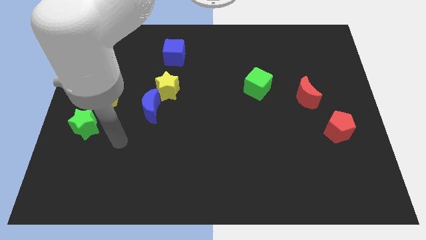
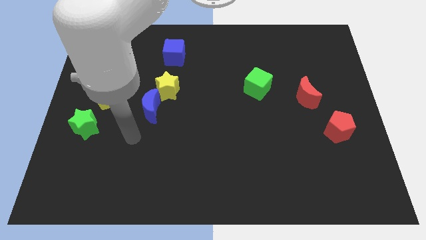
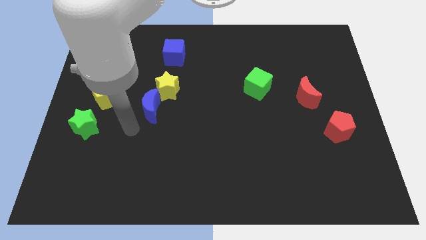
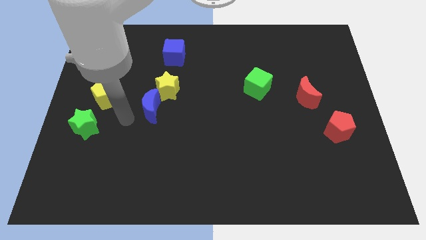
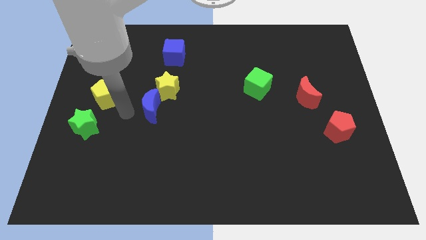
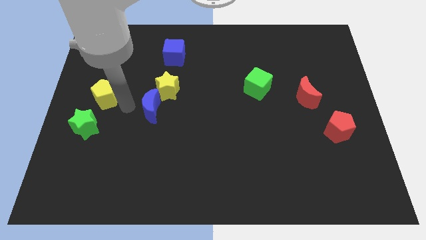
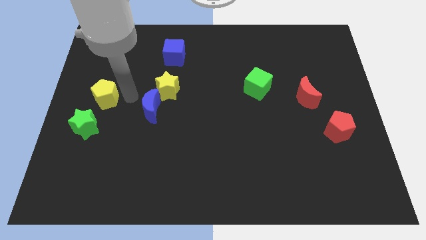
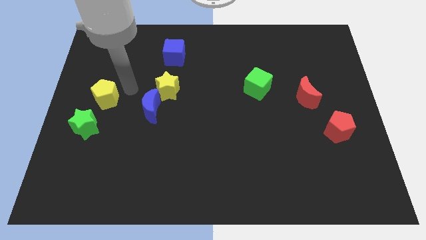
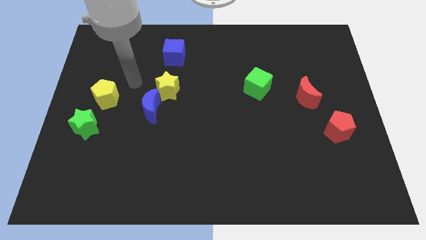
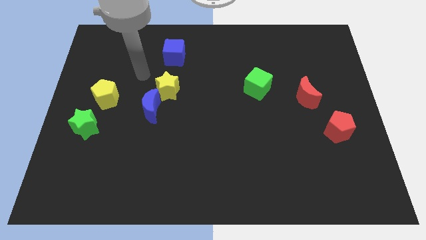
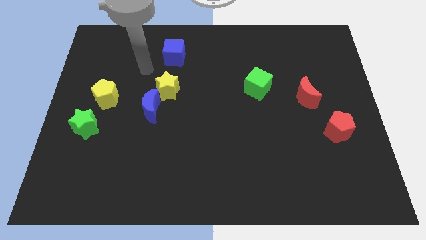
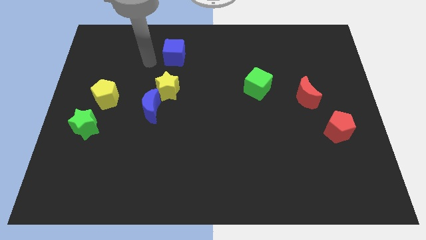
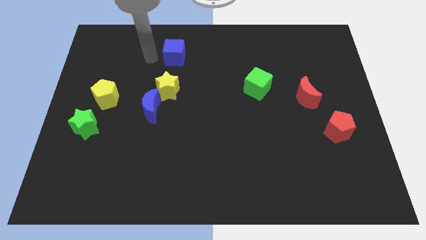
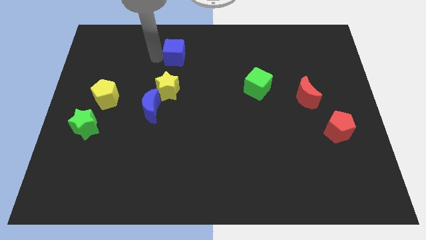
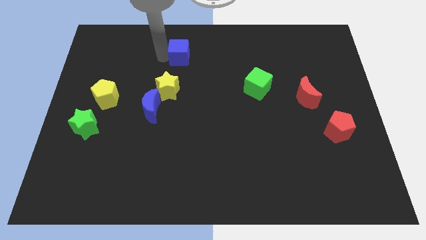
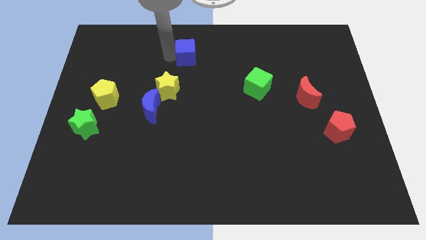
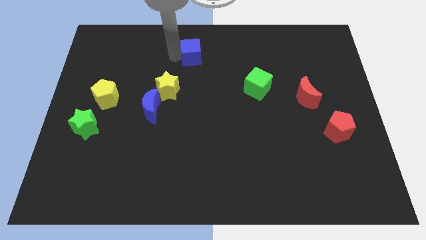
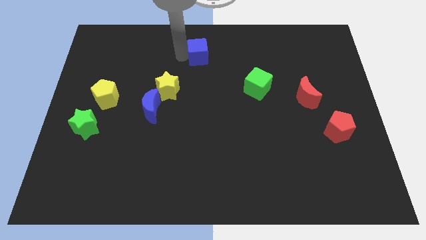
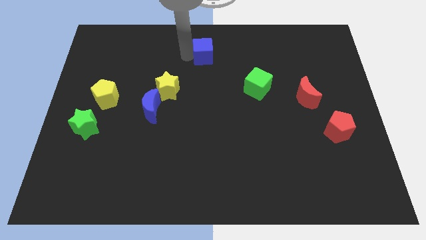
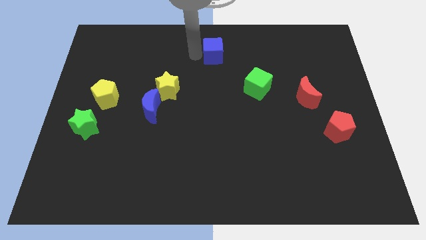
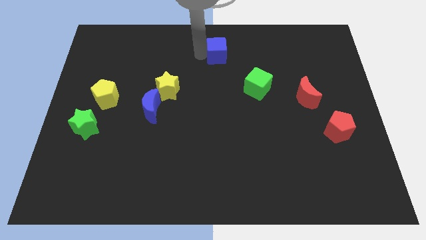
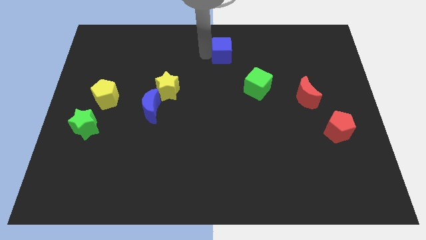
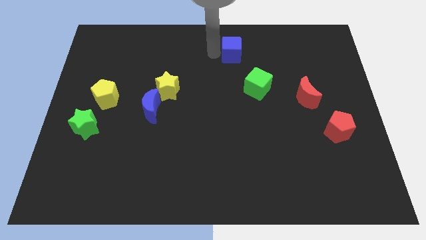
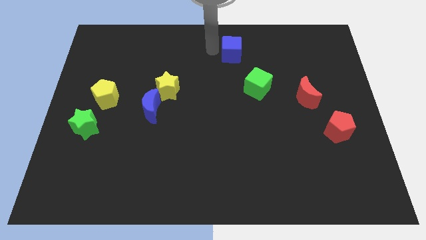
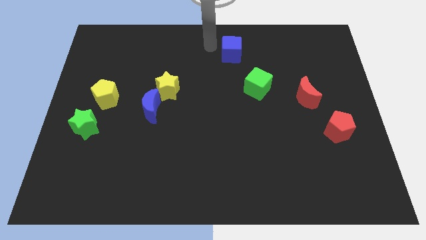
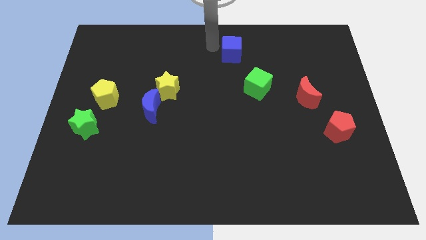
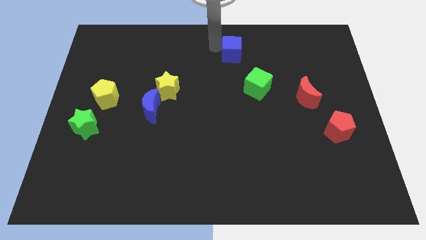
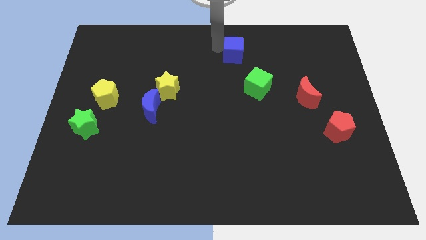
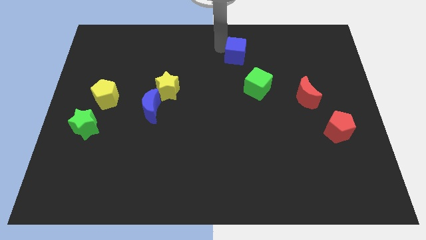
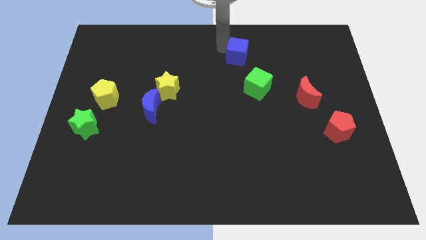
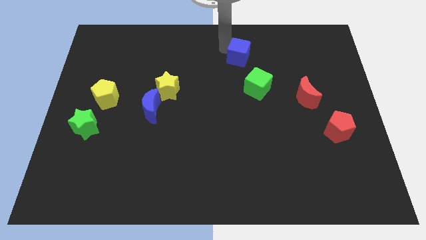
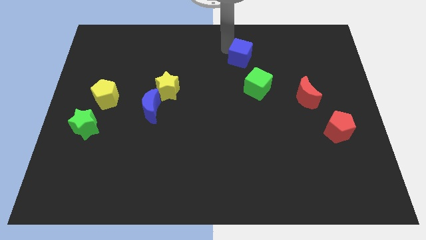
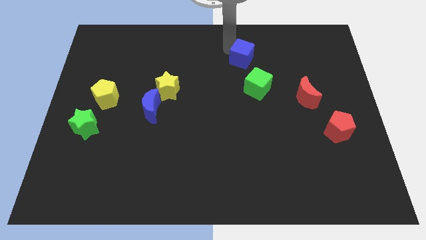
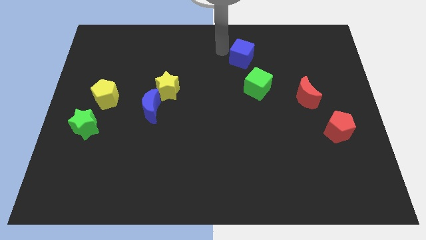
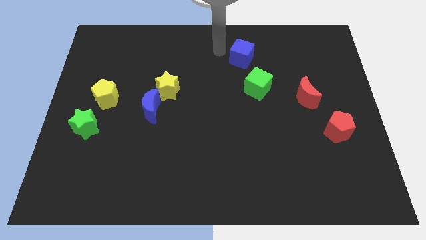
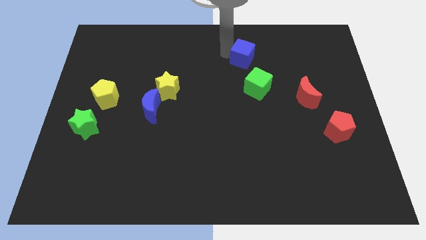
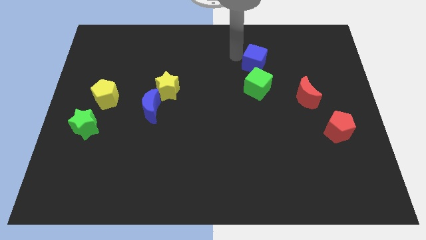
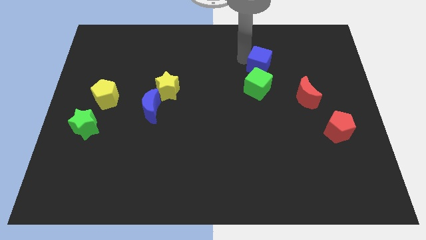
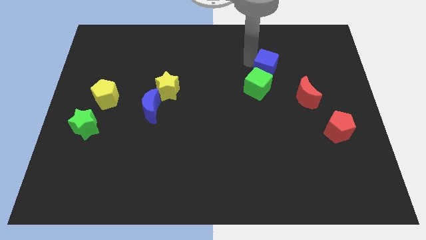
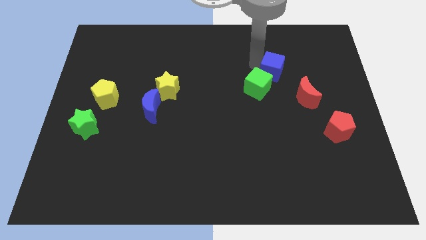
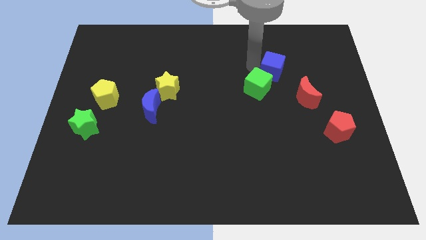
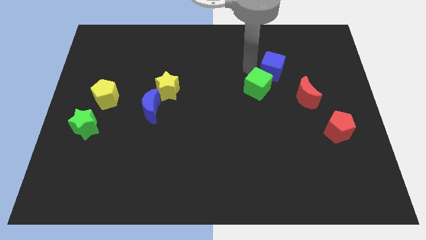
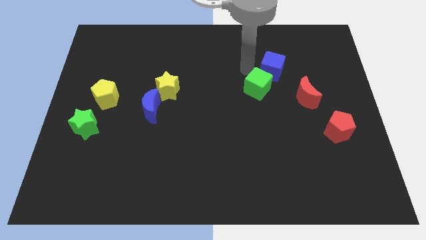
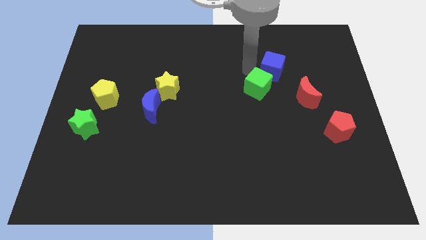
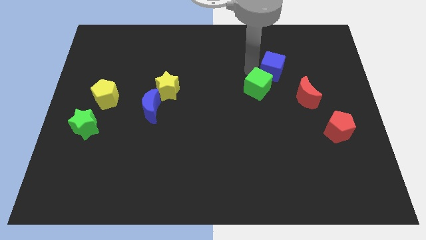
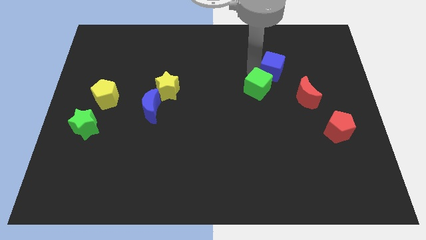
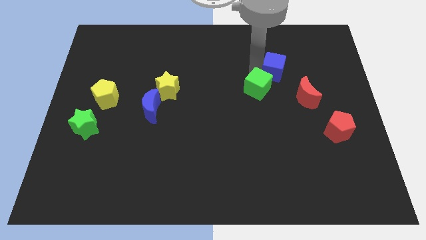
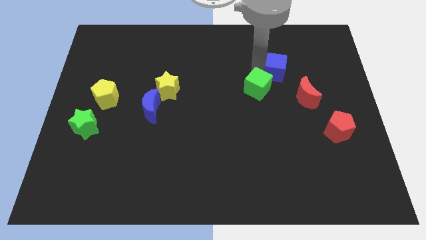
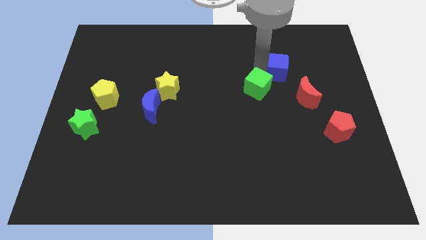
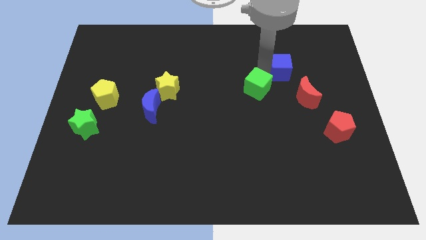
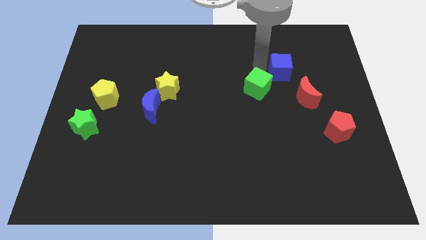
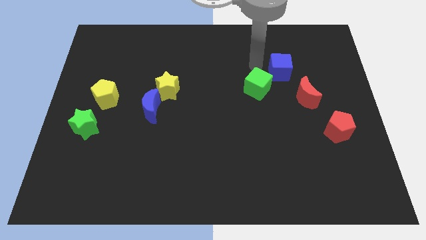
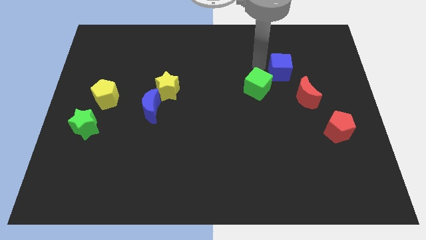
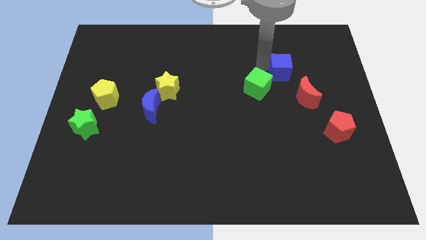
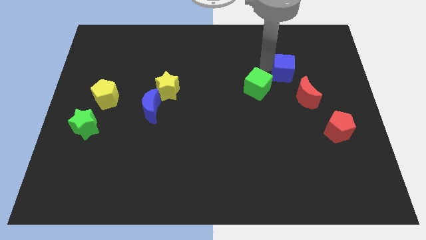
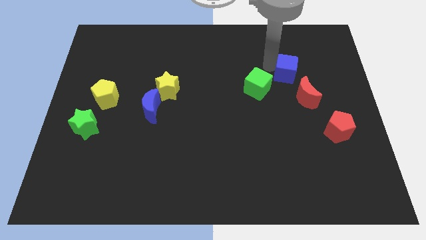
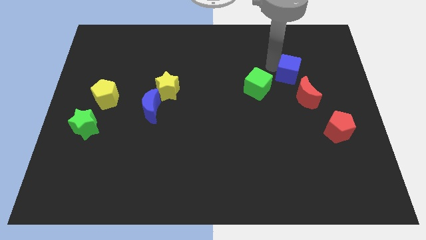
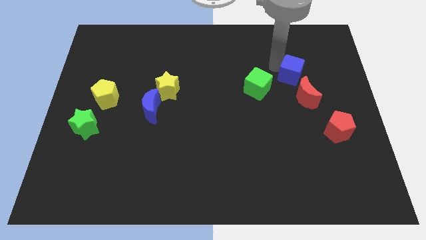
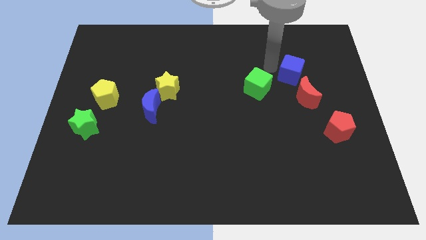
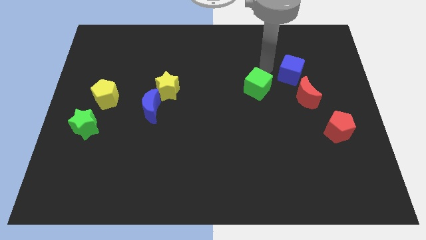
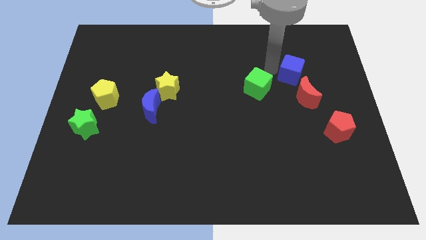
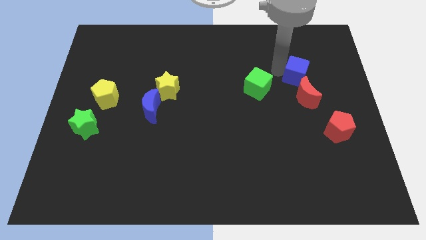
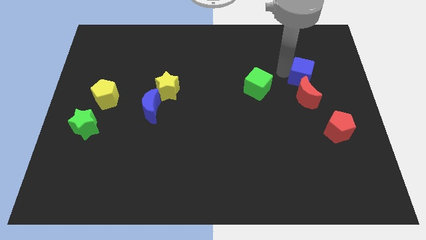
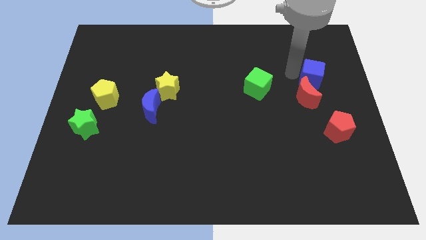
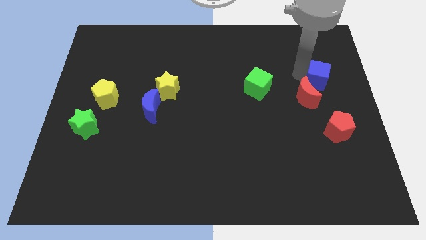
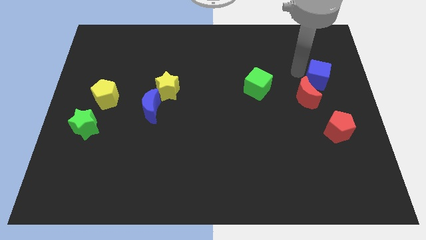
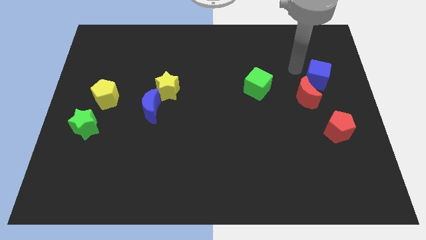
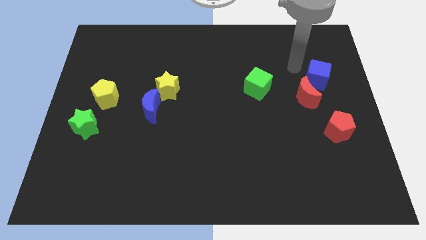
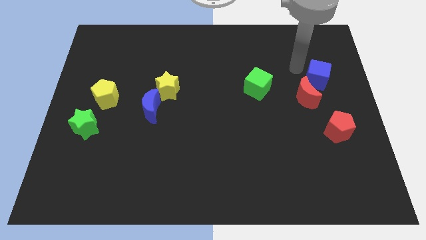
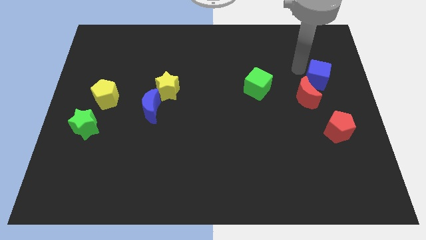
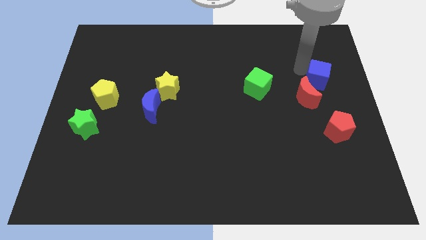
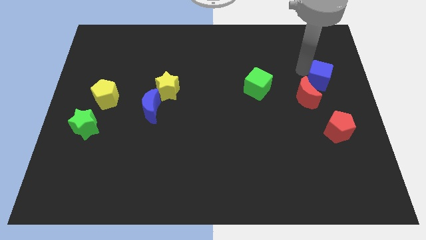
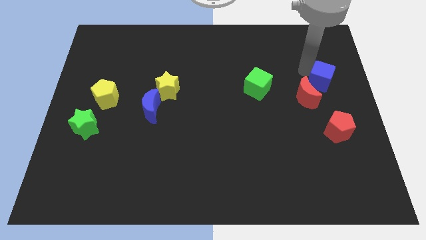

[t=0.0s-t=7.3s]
slide the blue cube to the right side
